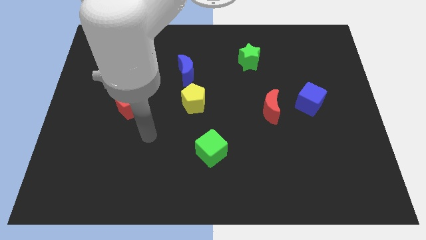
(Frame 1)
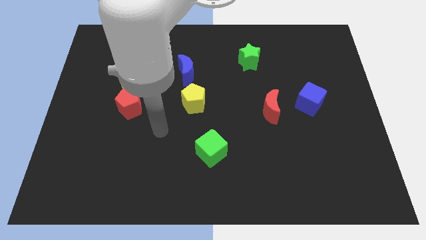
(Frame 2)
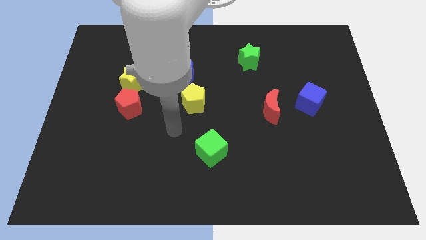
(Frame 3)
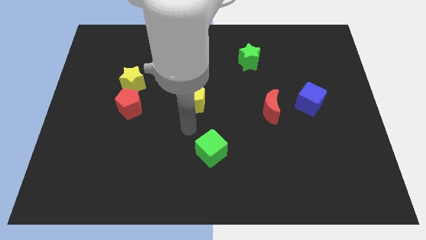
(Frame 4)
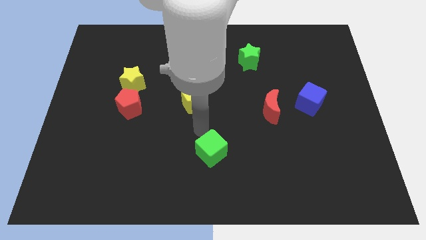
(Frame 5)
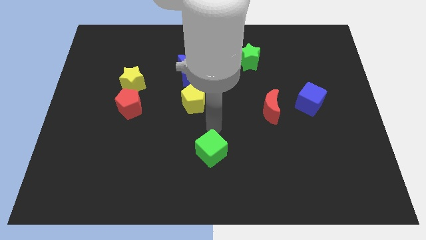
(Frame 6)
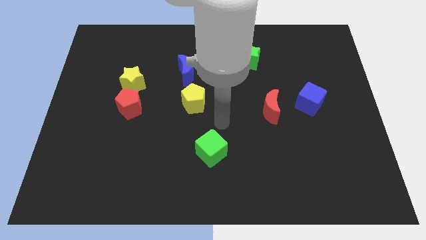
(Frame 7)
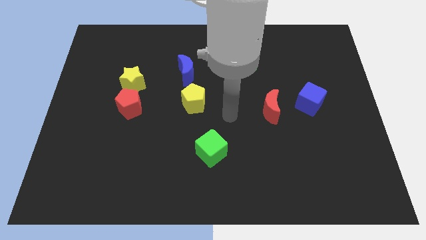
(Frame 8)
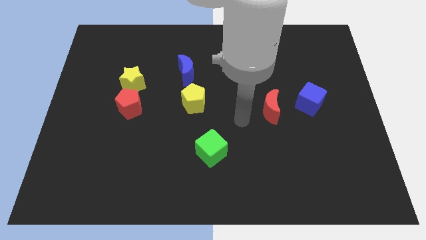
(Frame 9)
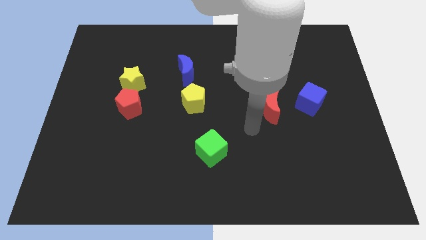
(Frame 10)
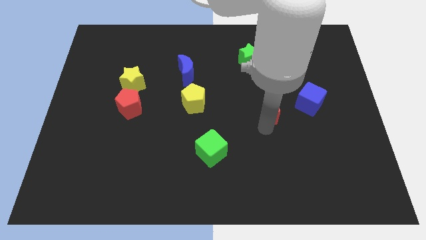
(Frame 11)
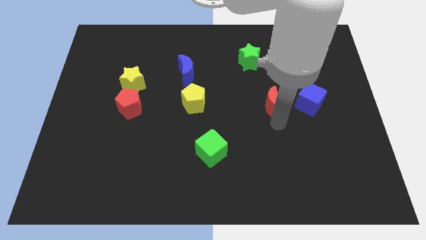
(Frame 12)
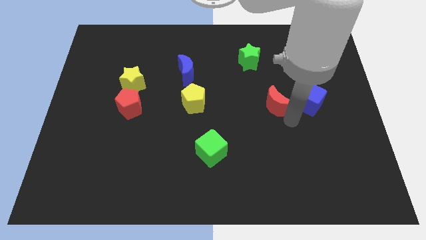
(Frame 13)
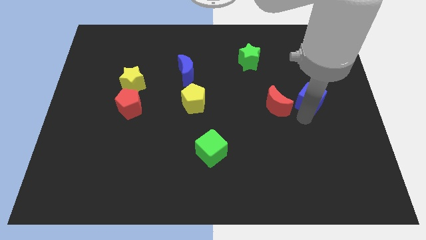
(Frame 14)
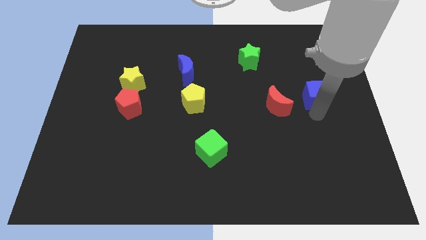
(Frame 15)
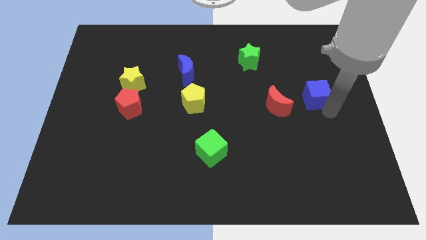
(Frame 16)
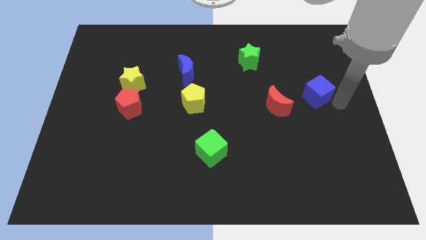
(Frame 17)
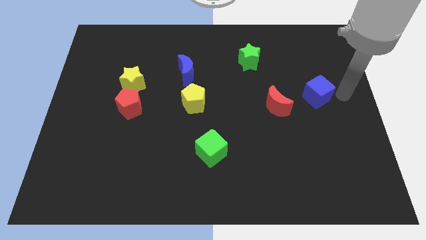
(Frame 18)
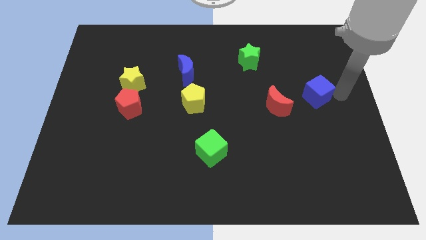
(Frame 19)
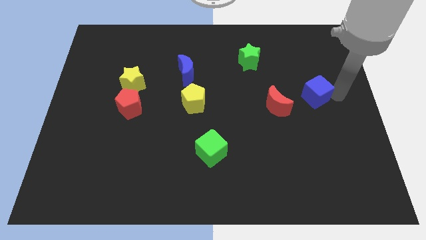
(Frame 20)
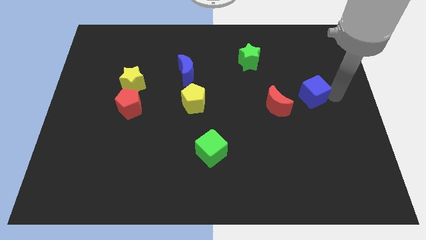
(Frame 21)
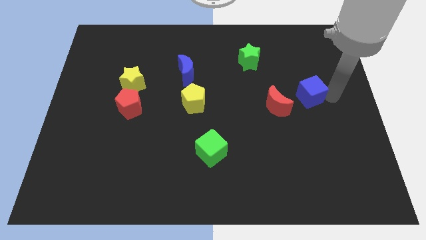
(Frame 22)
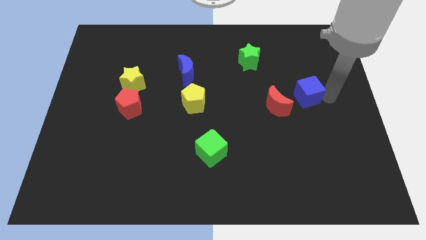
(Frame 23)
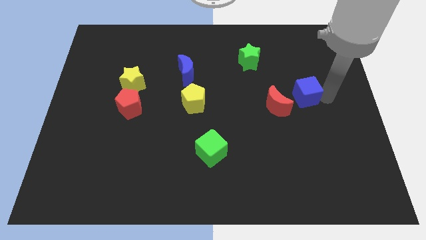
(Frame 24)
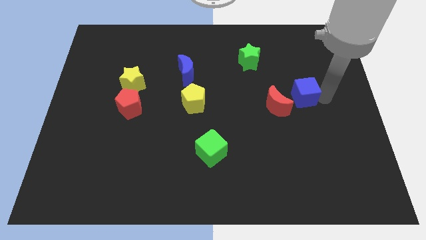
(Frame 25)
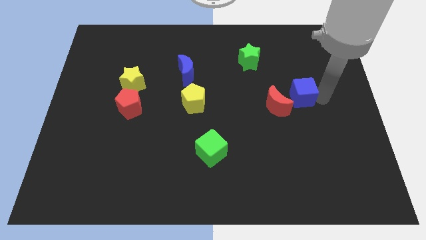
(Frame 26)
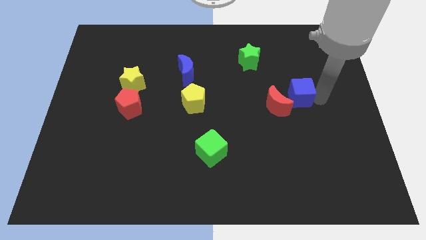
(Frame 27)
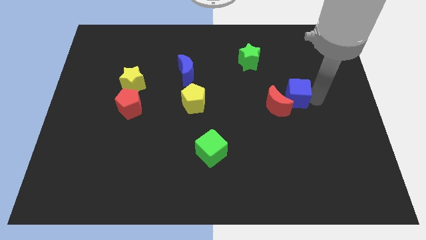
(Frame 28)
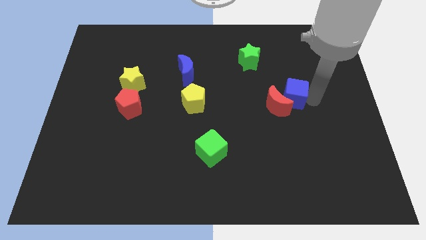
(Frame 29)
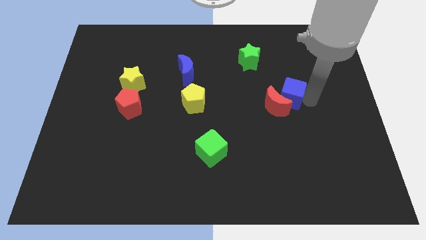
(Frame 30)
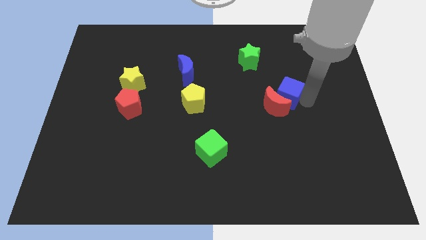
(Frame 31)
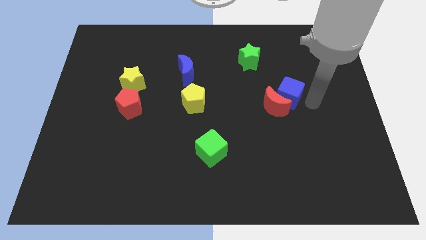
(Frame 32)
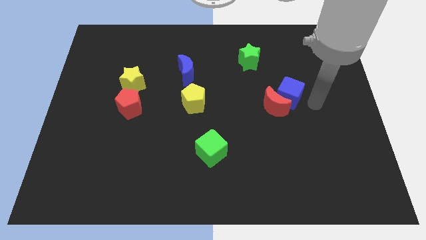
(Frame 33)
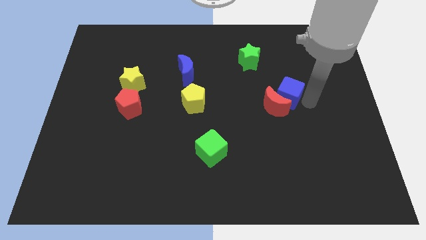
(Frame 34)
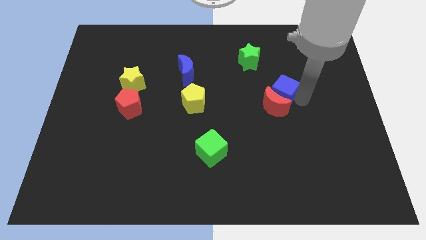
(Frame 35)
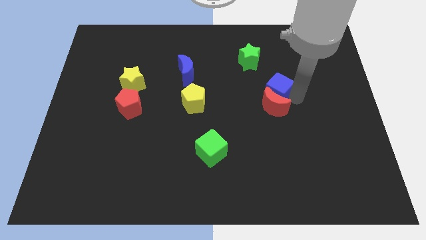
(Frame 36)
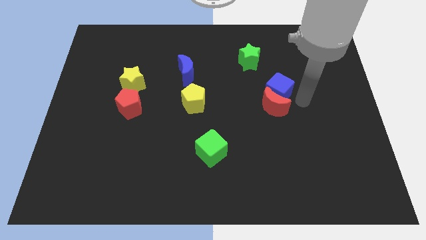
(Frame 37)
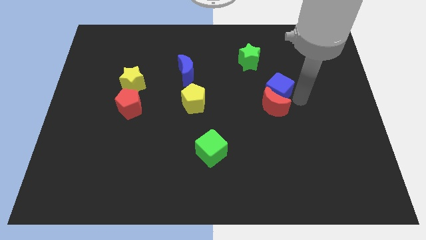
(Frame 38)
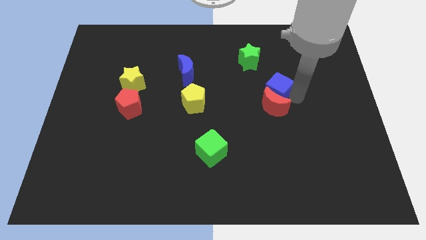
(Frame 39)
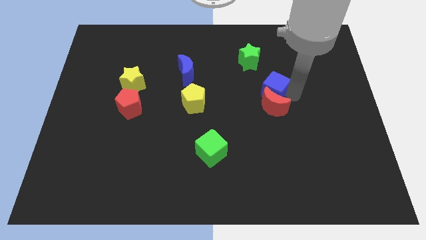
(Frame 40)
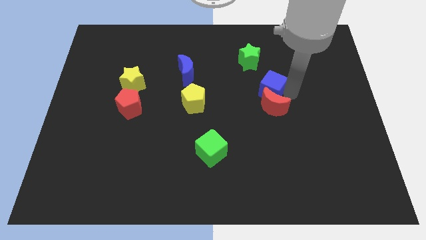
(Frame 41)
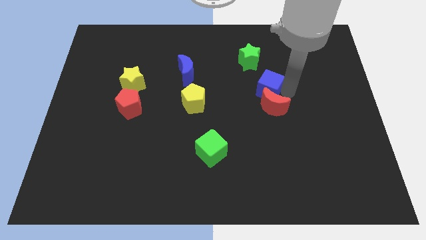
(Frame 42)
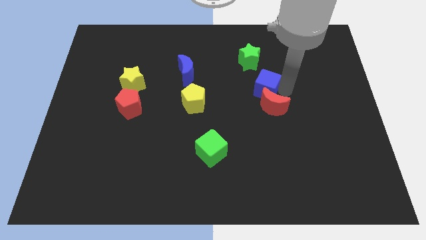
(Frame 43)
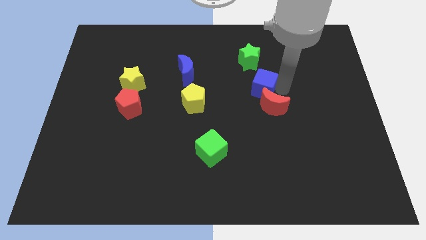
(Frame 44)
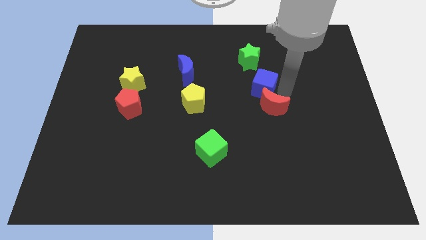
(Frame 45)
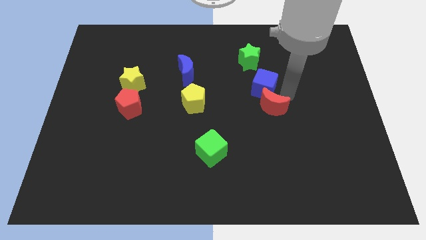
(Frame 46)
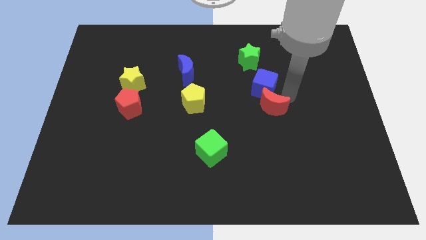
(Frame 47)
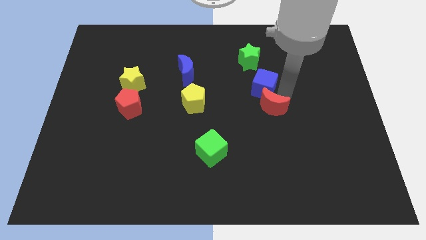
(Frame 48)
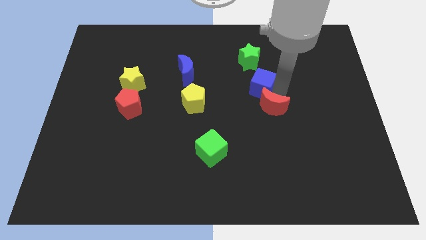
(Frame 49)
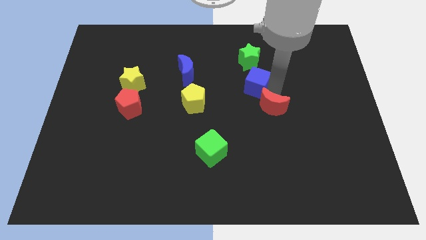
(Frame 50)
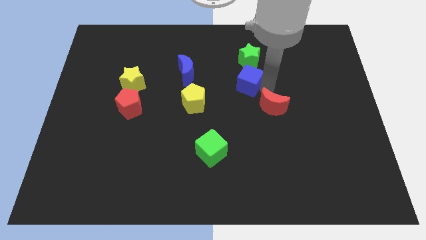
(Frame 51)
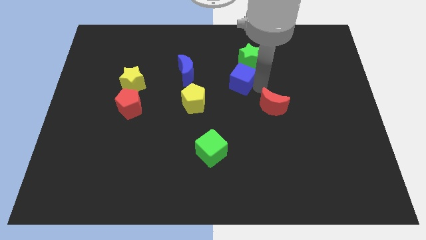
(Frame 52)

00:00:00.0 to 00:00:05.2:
slide the blue cube diagonally down and to the left of the green star

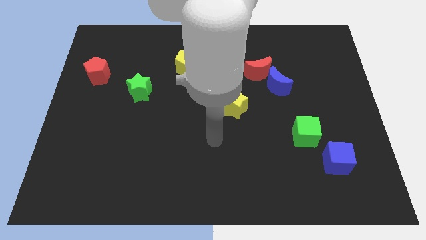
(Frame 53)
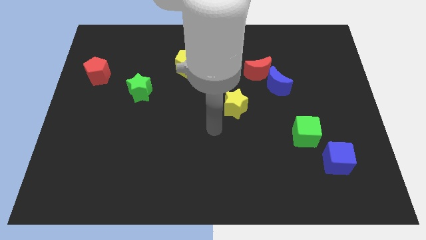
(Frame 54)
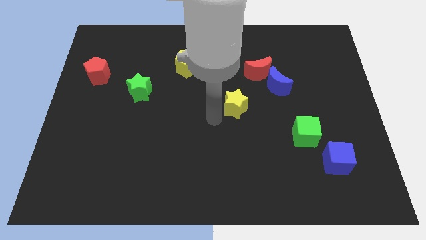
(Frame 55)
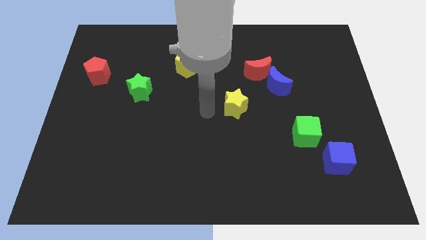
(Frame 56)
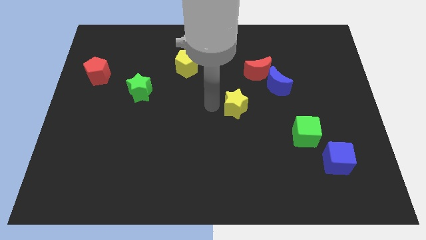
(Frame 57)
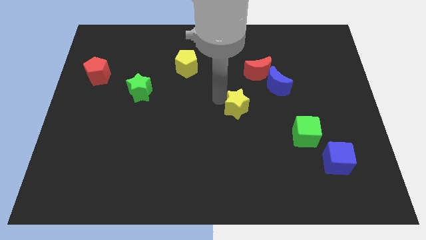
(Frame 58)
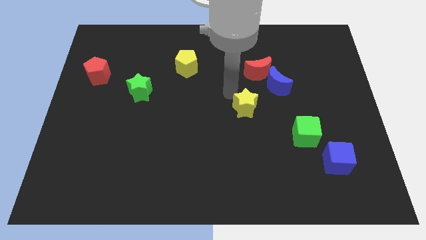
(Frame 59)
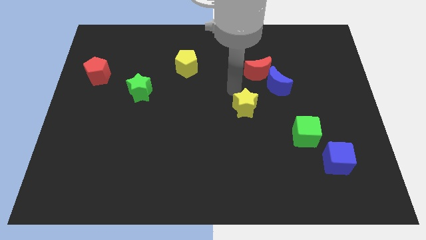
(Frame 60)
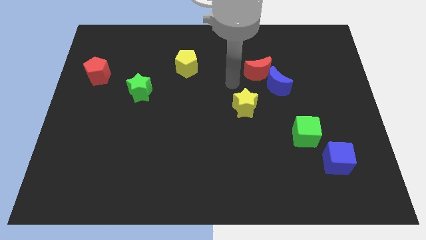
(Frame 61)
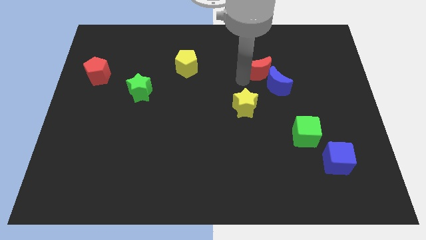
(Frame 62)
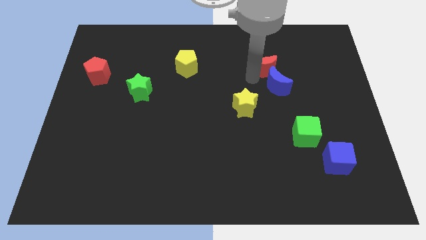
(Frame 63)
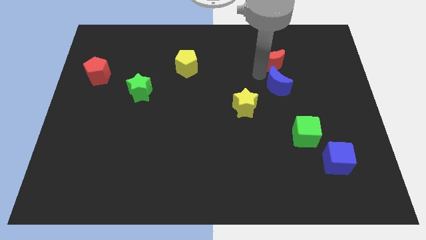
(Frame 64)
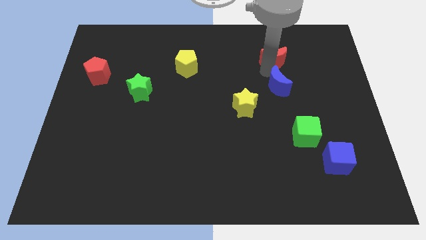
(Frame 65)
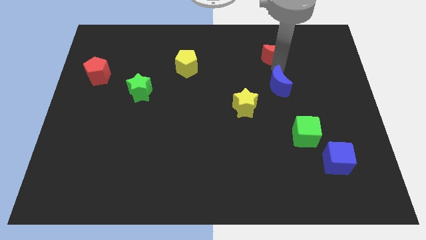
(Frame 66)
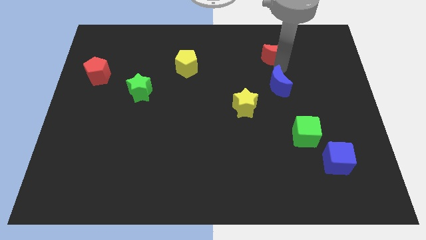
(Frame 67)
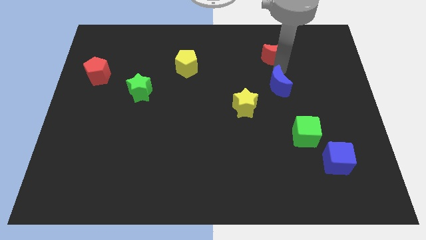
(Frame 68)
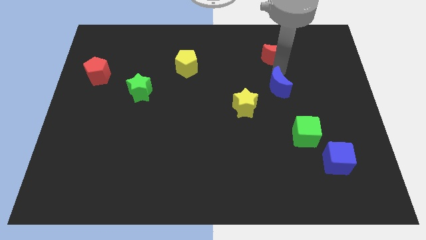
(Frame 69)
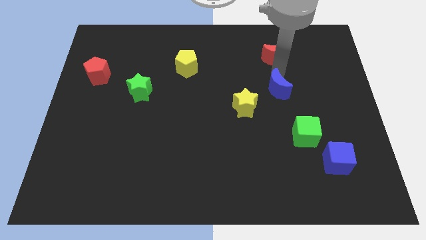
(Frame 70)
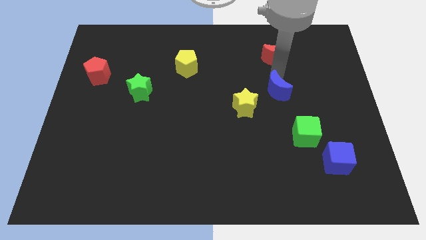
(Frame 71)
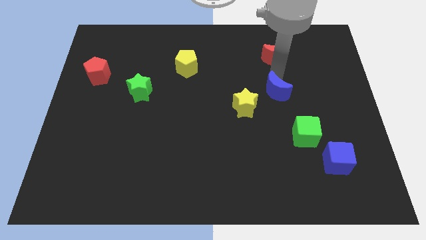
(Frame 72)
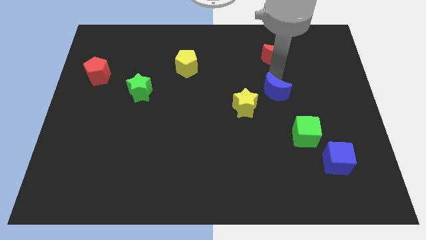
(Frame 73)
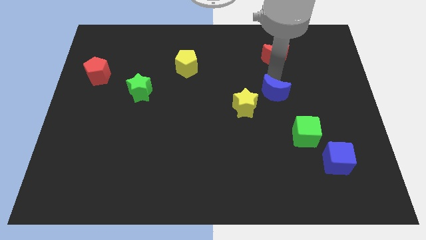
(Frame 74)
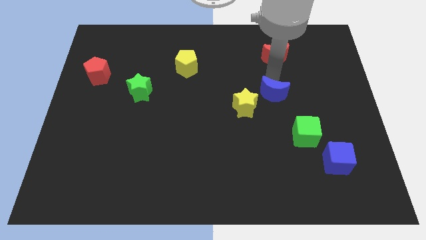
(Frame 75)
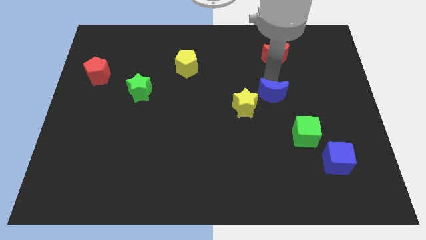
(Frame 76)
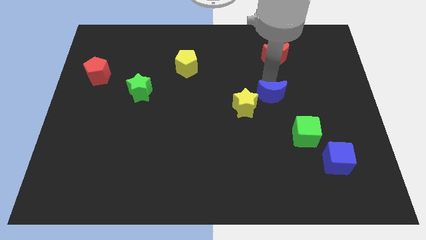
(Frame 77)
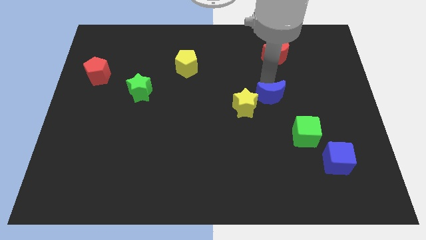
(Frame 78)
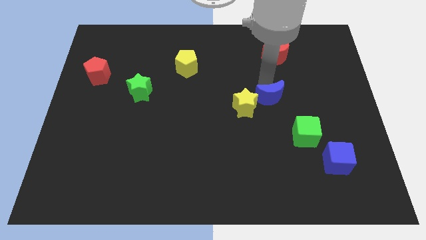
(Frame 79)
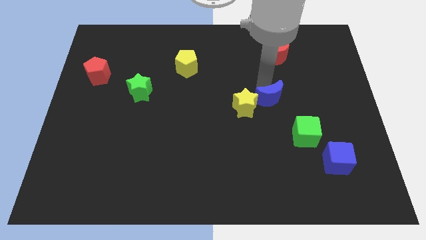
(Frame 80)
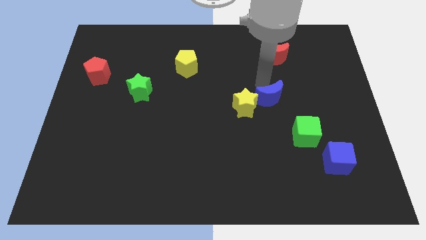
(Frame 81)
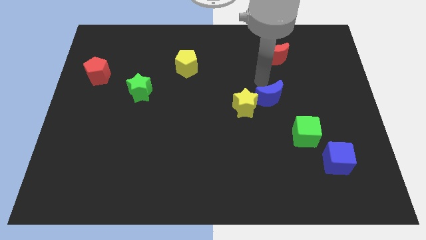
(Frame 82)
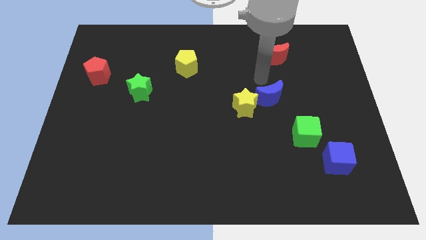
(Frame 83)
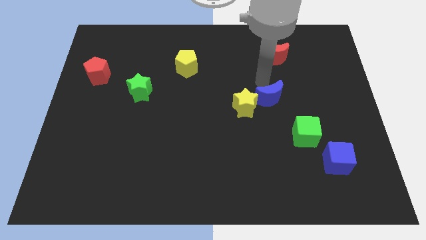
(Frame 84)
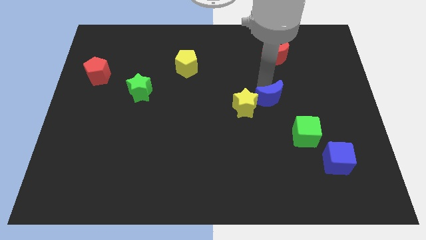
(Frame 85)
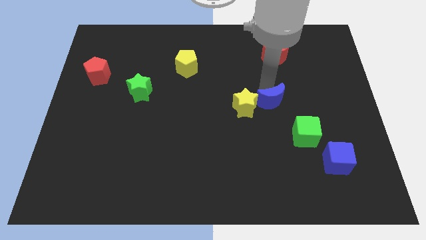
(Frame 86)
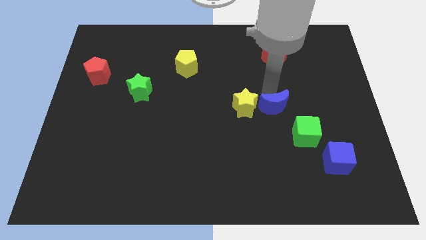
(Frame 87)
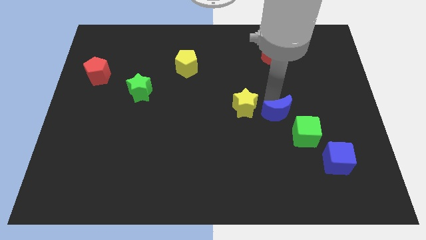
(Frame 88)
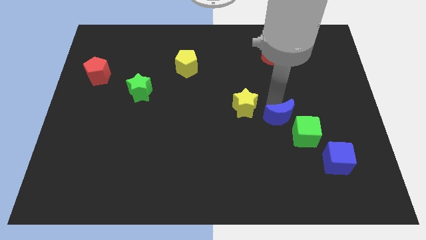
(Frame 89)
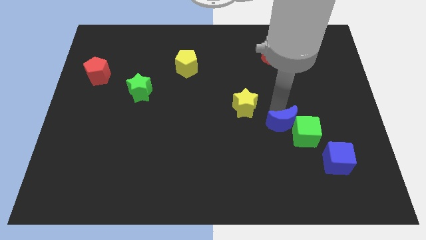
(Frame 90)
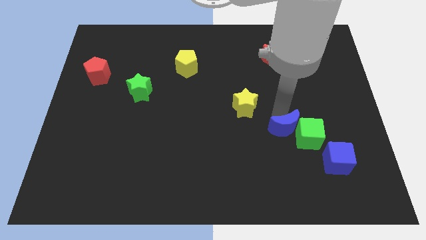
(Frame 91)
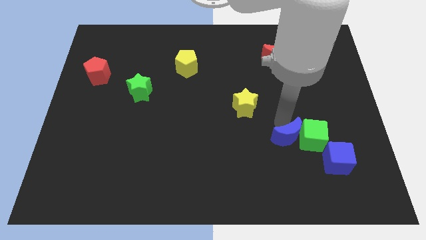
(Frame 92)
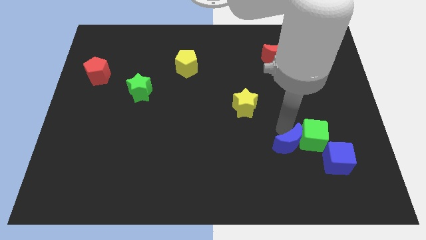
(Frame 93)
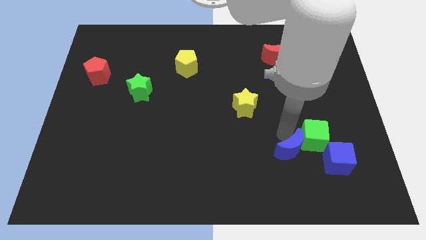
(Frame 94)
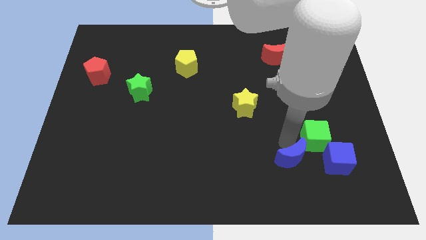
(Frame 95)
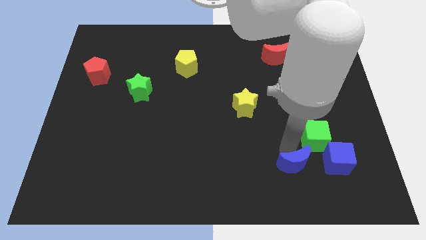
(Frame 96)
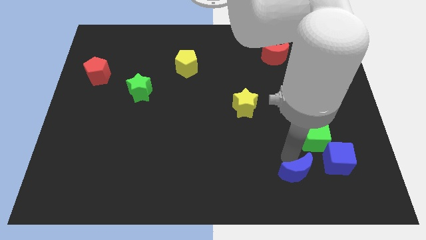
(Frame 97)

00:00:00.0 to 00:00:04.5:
push the blue moon diagonally down and to the left of the blue cube
